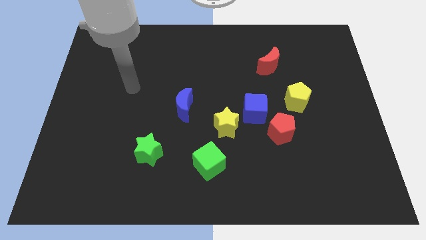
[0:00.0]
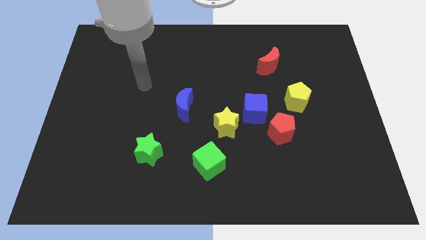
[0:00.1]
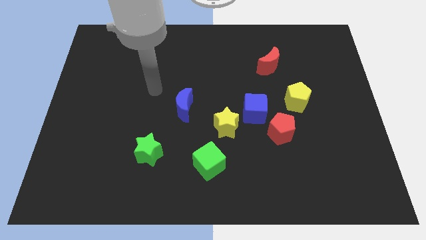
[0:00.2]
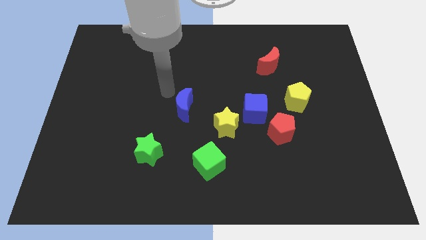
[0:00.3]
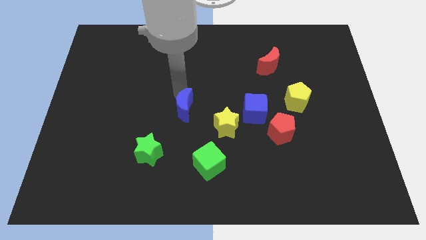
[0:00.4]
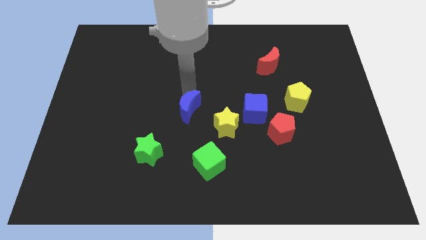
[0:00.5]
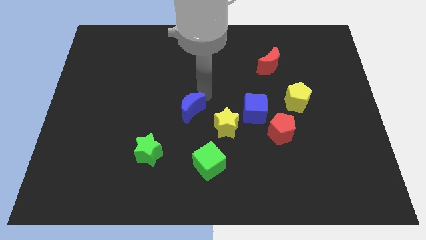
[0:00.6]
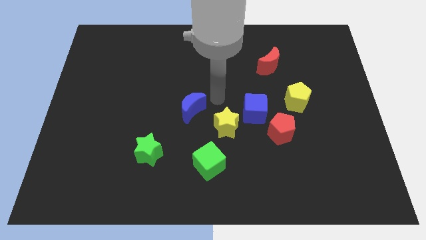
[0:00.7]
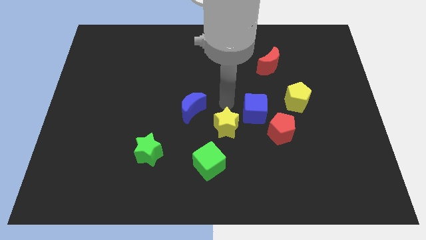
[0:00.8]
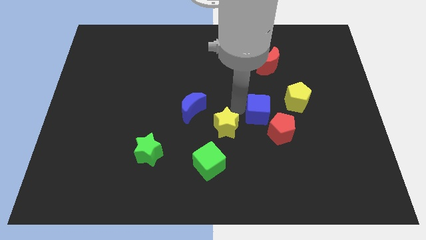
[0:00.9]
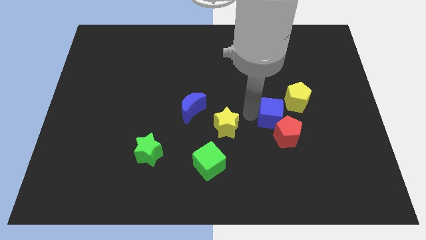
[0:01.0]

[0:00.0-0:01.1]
pull the yellow star apart from the blue cube

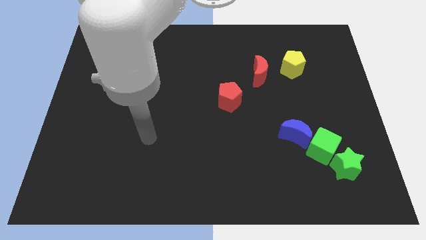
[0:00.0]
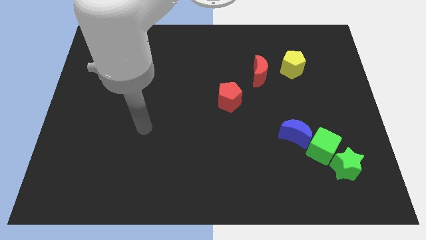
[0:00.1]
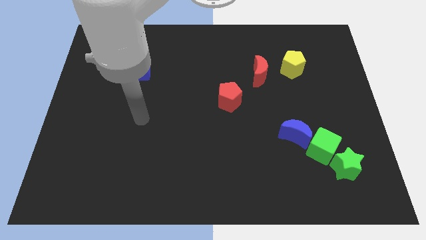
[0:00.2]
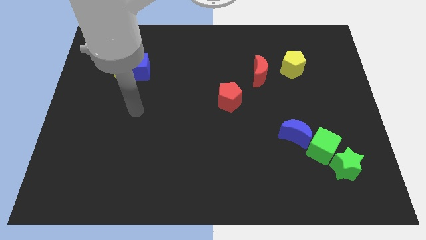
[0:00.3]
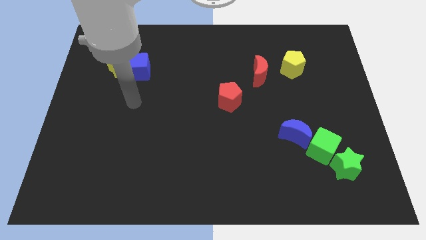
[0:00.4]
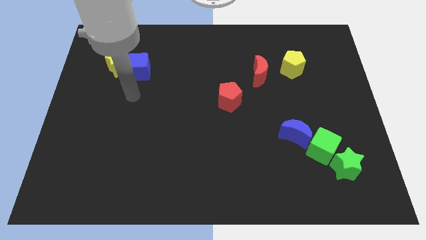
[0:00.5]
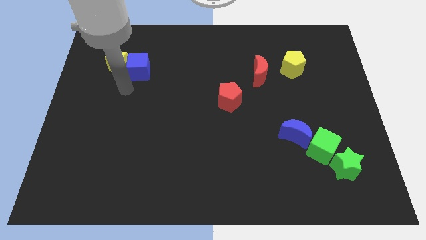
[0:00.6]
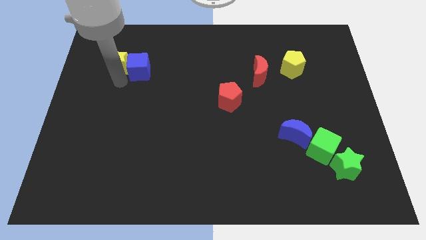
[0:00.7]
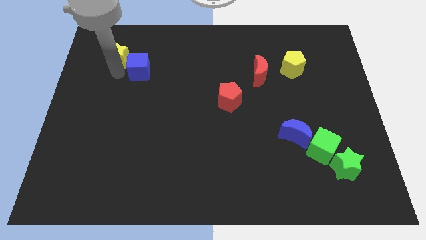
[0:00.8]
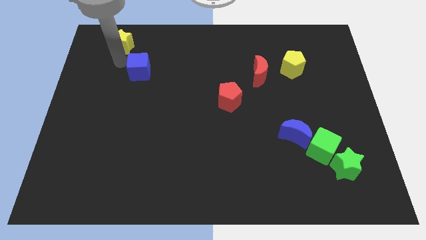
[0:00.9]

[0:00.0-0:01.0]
pull the blue cube apart from the yellow star

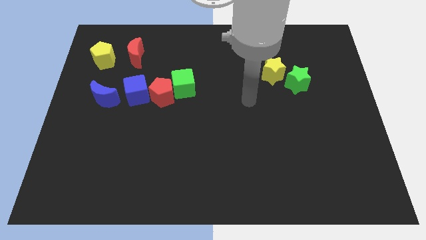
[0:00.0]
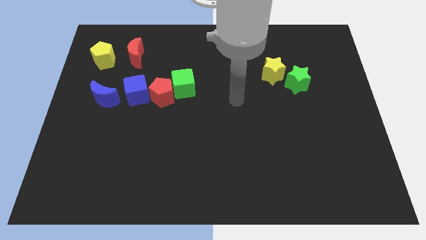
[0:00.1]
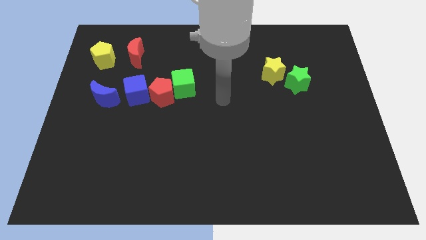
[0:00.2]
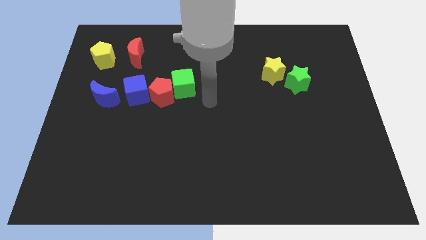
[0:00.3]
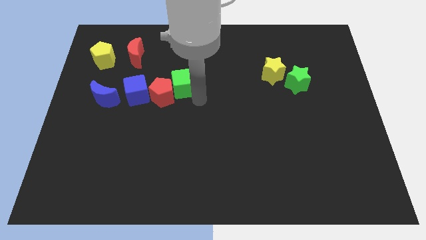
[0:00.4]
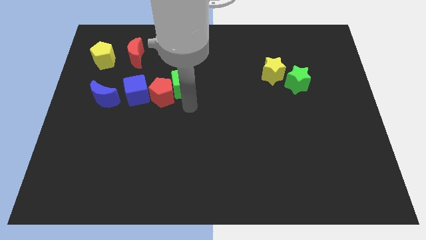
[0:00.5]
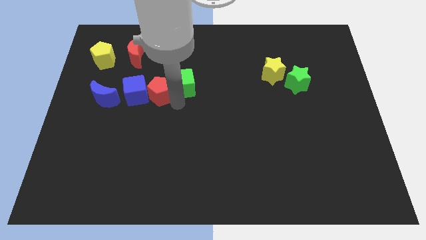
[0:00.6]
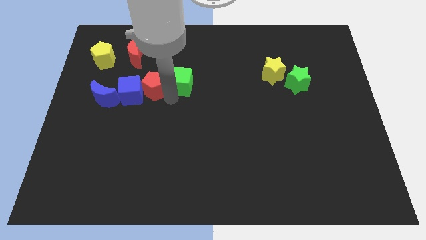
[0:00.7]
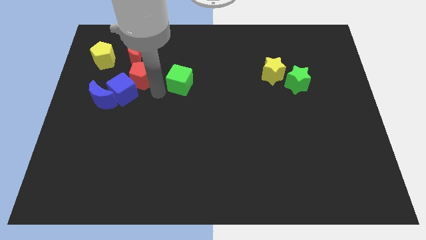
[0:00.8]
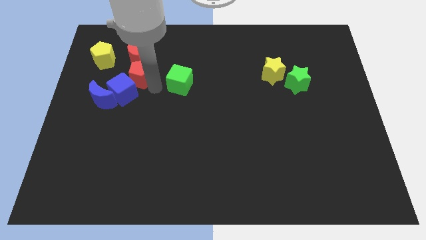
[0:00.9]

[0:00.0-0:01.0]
separate the green cube from the red pentagon

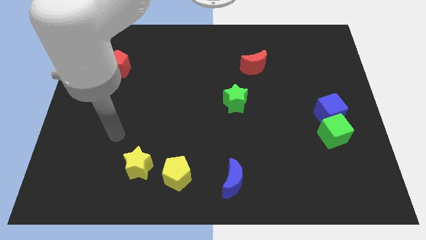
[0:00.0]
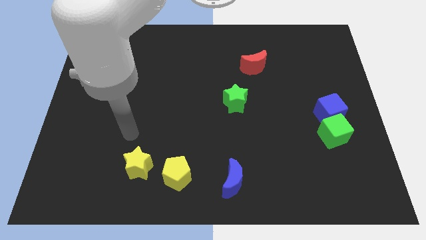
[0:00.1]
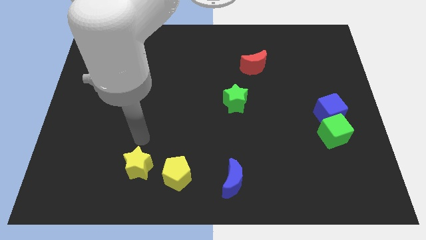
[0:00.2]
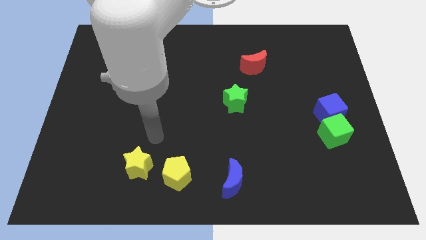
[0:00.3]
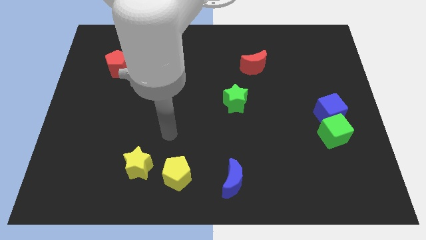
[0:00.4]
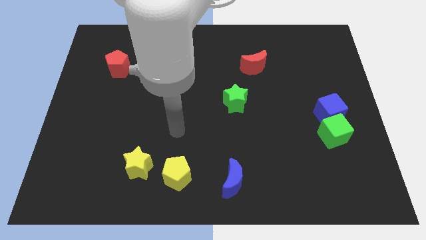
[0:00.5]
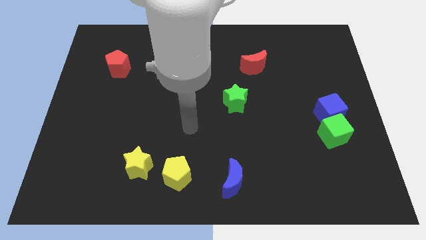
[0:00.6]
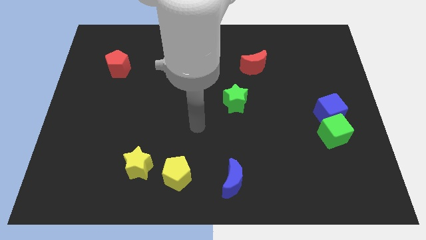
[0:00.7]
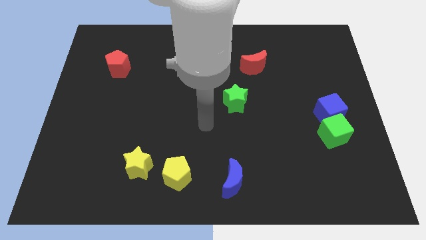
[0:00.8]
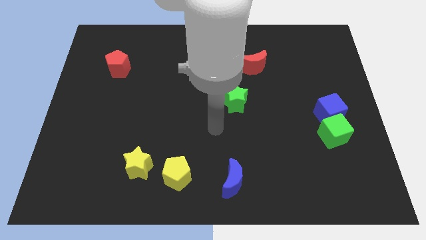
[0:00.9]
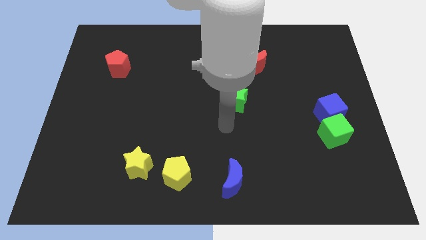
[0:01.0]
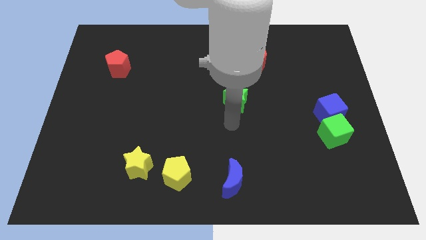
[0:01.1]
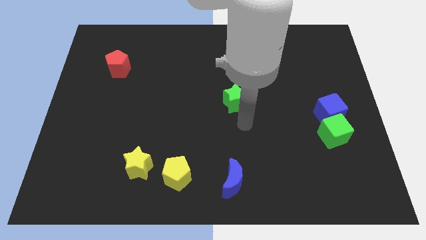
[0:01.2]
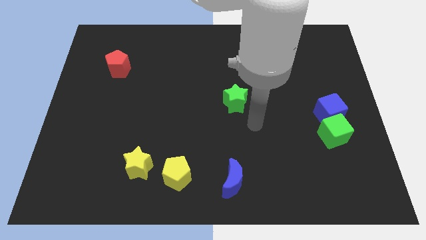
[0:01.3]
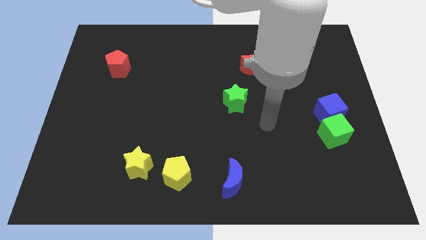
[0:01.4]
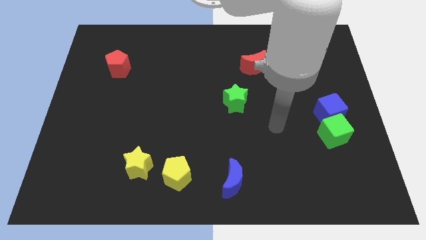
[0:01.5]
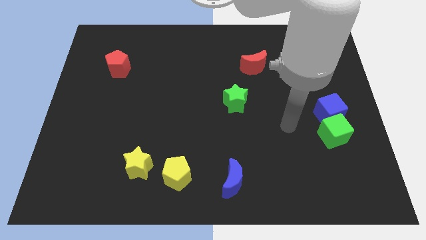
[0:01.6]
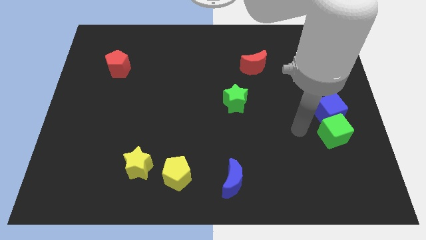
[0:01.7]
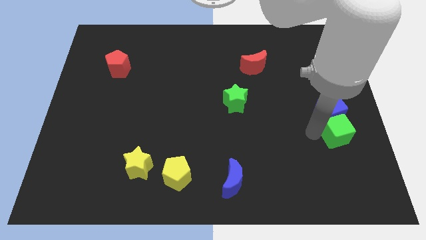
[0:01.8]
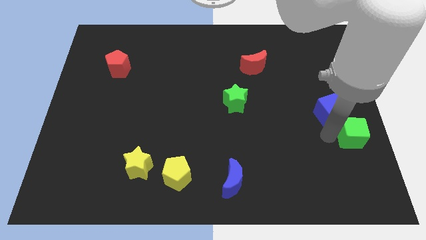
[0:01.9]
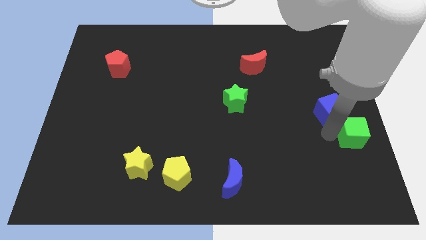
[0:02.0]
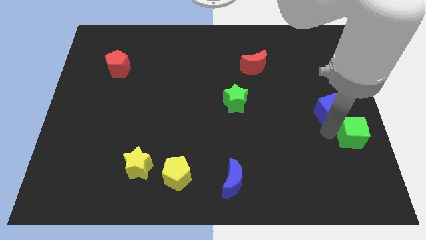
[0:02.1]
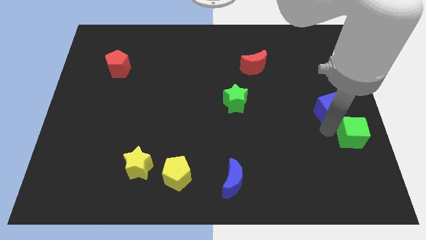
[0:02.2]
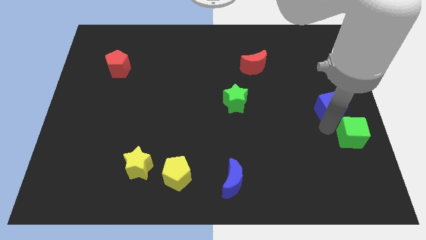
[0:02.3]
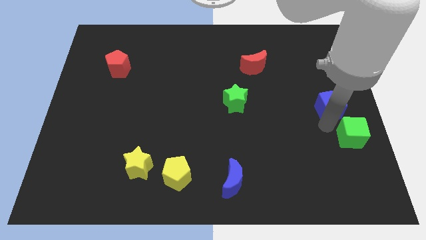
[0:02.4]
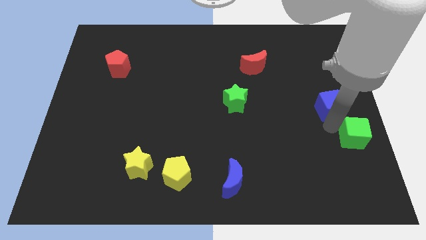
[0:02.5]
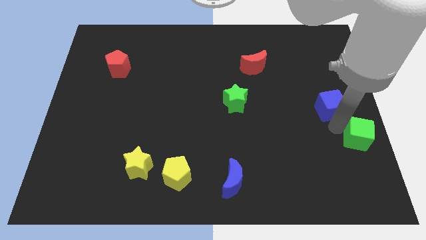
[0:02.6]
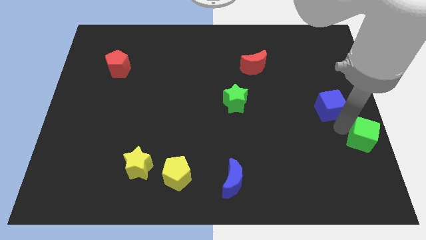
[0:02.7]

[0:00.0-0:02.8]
separate the blue cube from the green cube

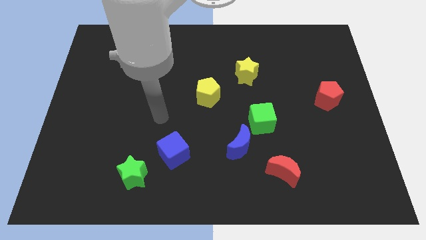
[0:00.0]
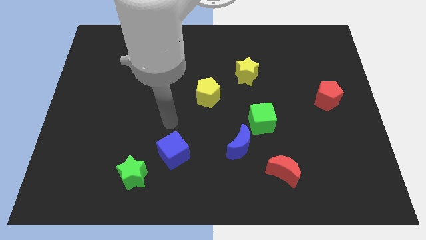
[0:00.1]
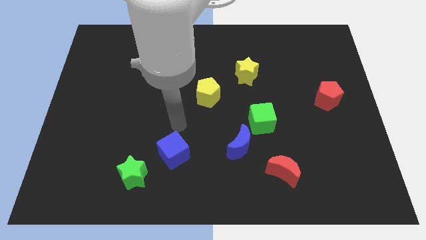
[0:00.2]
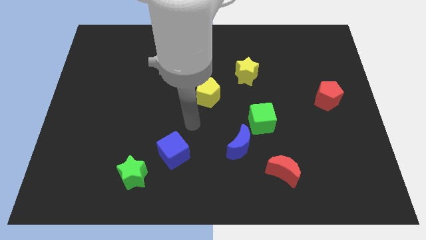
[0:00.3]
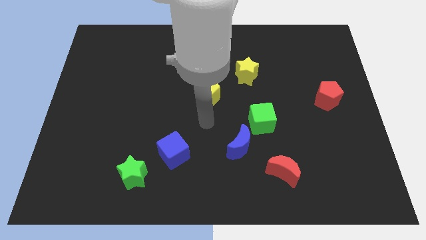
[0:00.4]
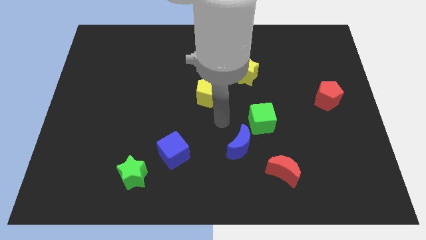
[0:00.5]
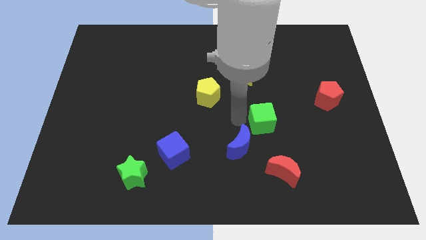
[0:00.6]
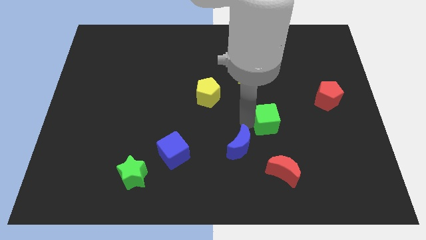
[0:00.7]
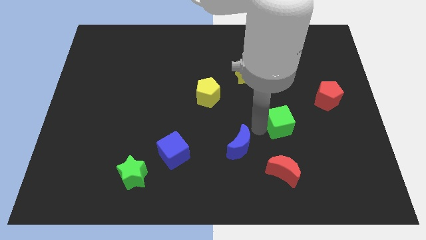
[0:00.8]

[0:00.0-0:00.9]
pull the blue moon apart from the green cube

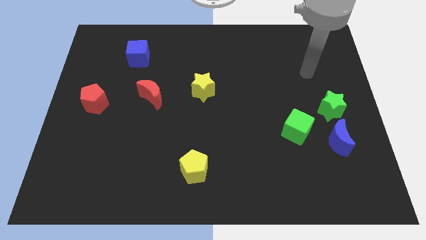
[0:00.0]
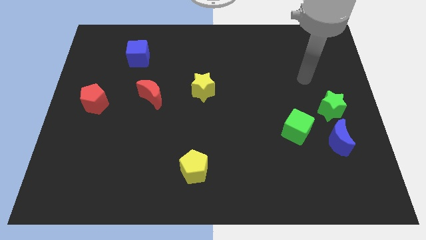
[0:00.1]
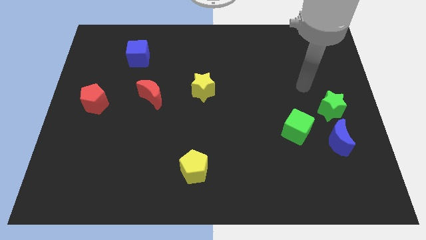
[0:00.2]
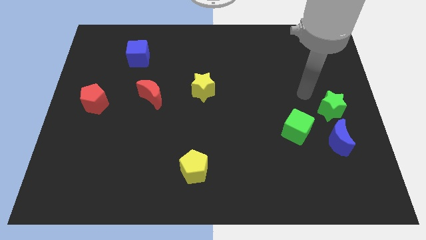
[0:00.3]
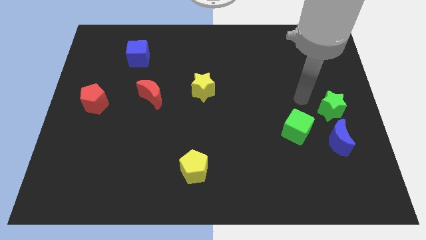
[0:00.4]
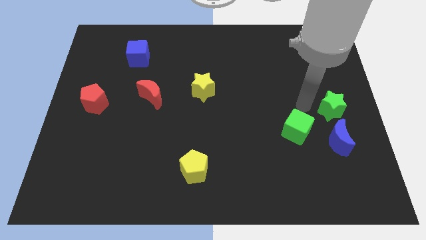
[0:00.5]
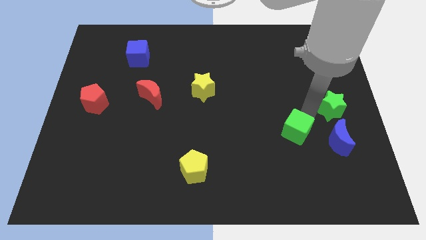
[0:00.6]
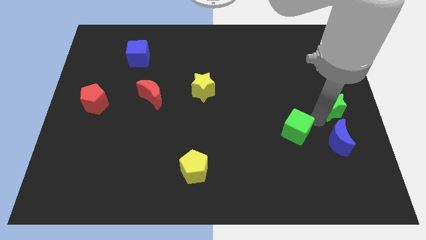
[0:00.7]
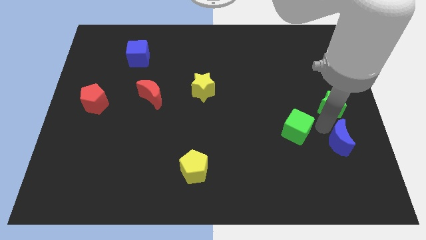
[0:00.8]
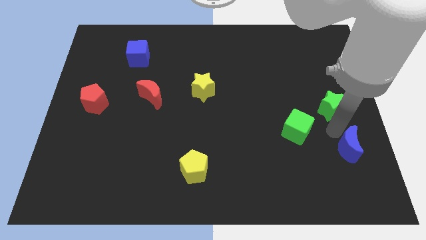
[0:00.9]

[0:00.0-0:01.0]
move the green star away from the blue moon

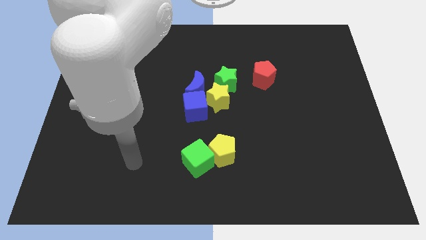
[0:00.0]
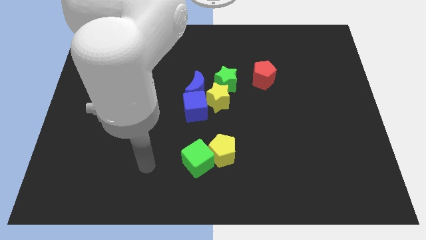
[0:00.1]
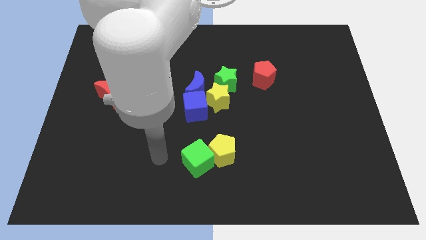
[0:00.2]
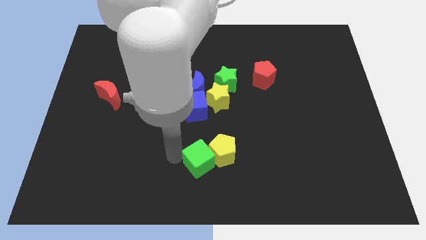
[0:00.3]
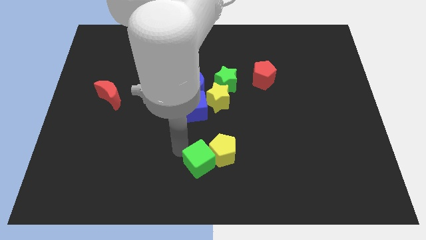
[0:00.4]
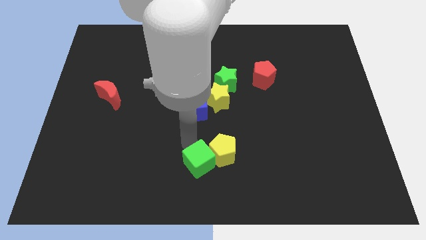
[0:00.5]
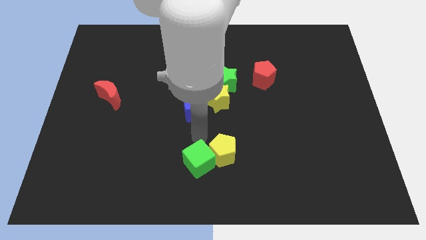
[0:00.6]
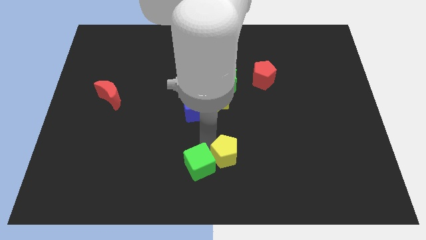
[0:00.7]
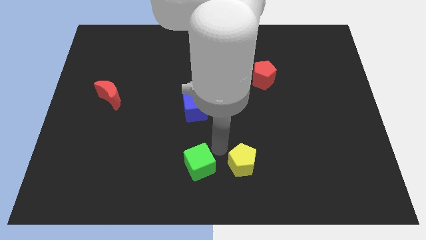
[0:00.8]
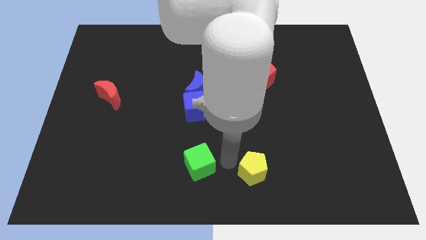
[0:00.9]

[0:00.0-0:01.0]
pull the green cube apart from the yellow pentagon

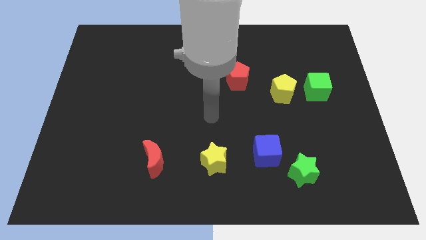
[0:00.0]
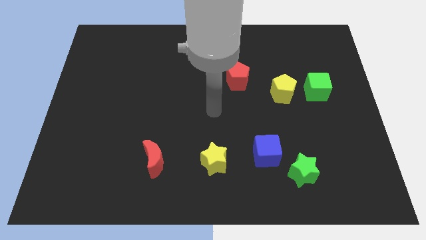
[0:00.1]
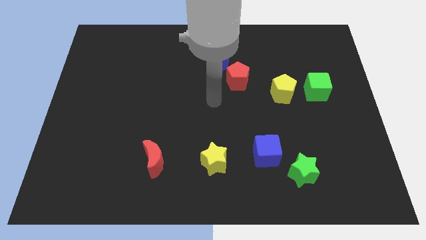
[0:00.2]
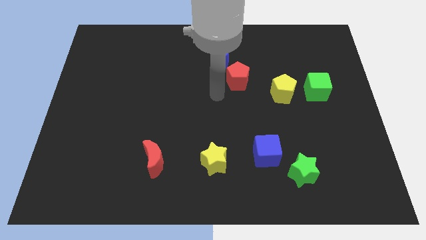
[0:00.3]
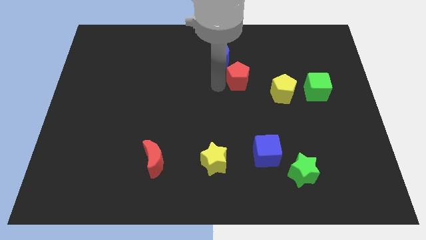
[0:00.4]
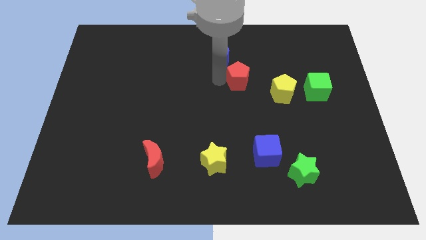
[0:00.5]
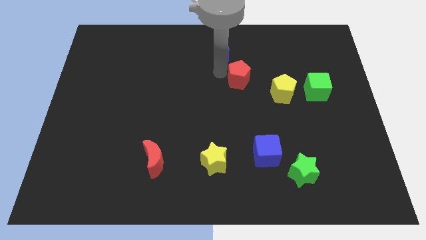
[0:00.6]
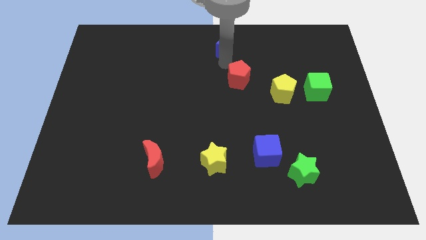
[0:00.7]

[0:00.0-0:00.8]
pull the red pentagon apart from the blue moon
